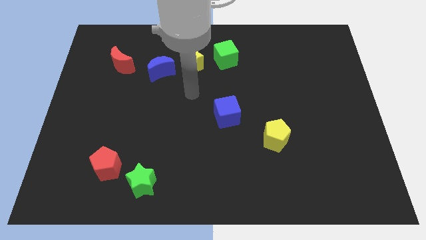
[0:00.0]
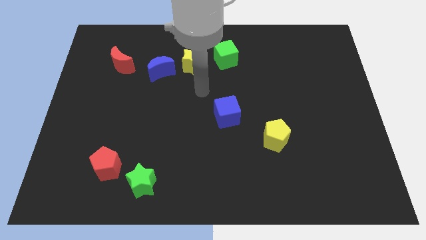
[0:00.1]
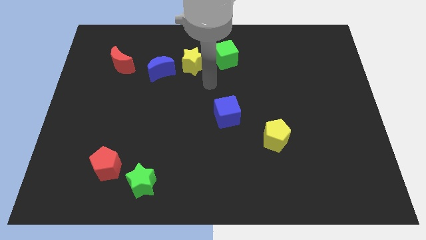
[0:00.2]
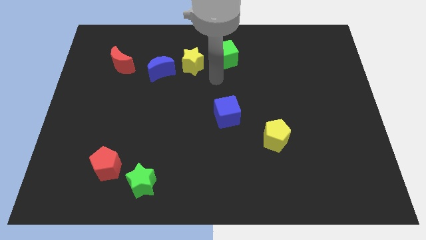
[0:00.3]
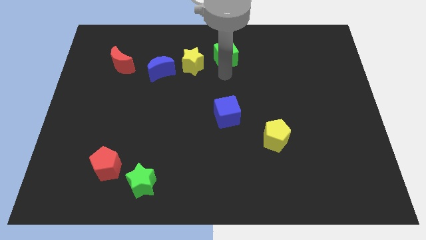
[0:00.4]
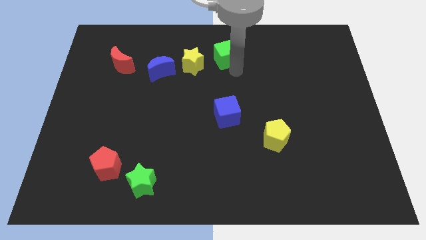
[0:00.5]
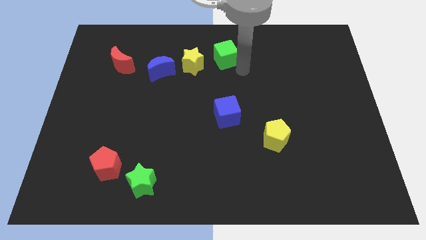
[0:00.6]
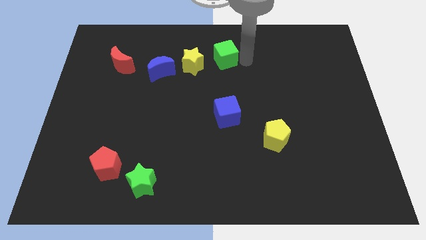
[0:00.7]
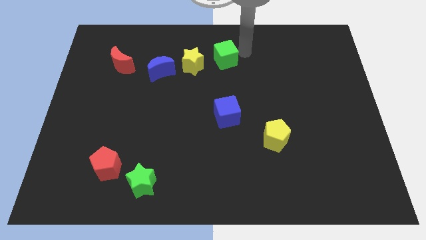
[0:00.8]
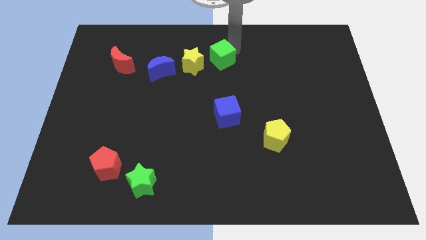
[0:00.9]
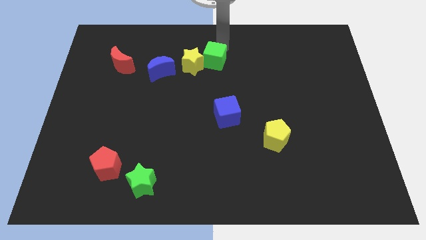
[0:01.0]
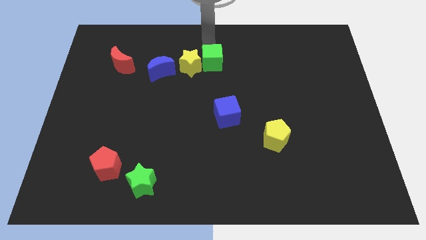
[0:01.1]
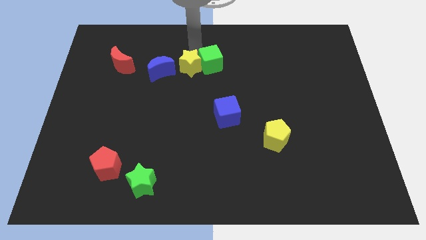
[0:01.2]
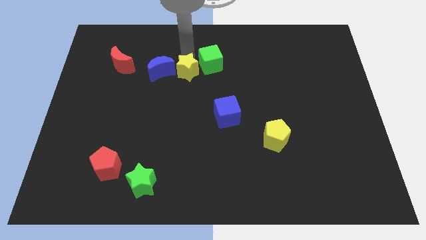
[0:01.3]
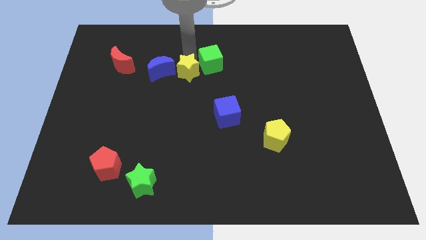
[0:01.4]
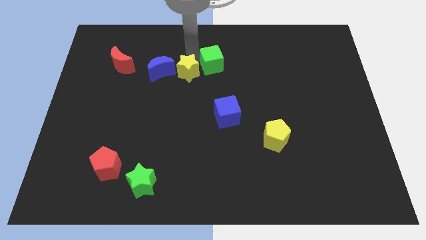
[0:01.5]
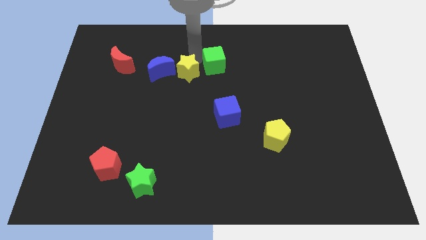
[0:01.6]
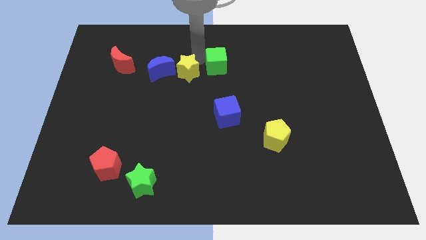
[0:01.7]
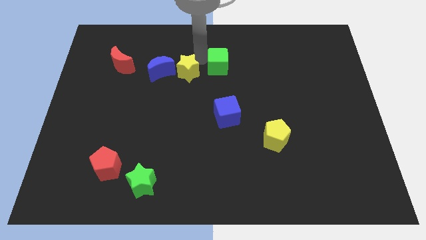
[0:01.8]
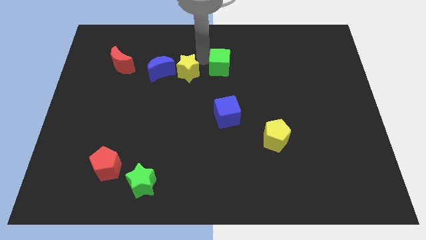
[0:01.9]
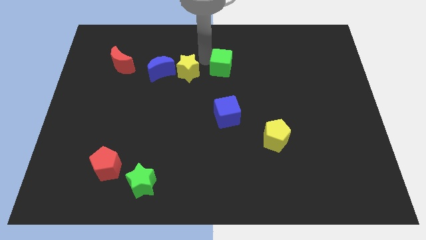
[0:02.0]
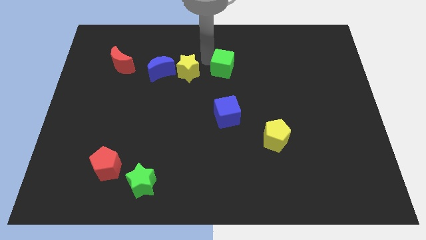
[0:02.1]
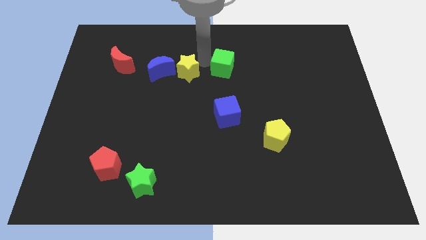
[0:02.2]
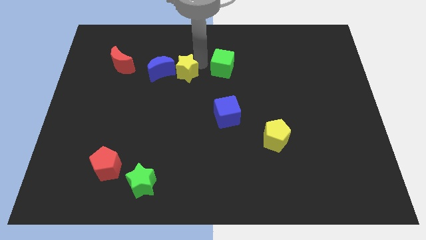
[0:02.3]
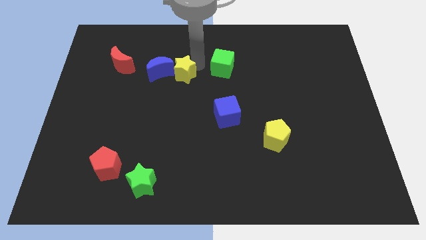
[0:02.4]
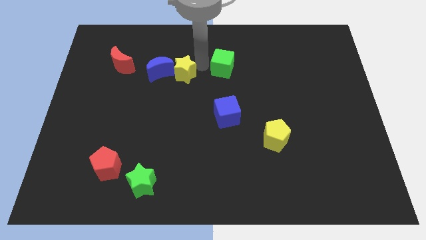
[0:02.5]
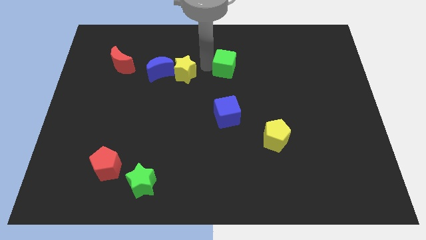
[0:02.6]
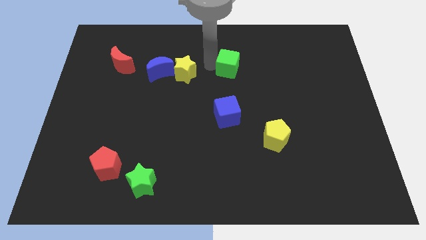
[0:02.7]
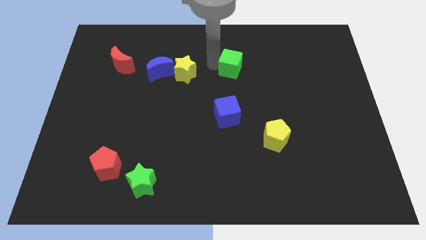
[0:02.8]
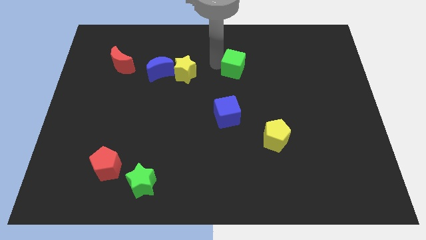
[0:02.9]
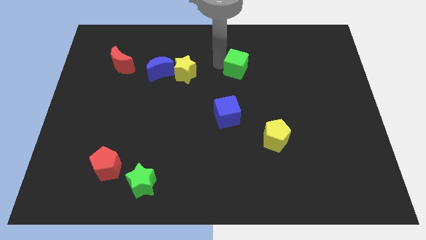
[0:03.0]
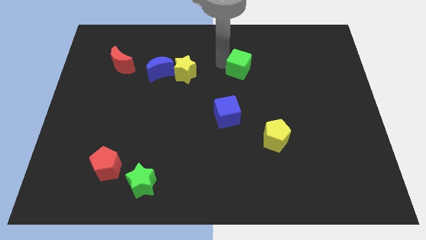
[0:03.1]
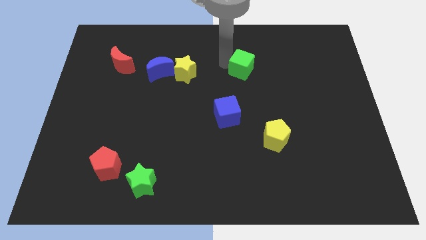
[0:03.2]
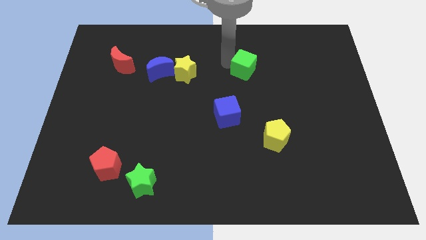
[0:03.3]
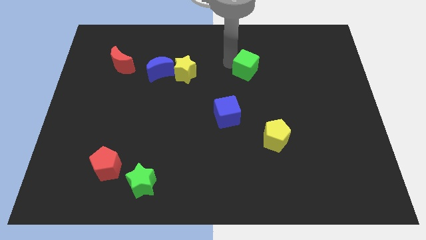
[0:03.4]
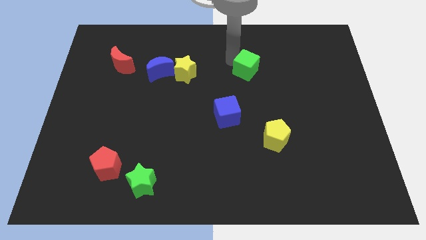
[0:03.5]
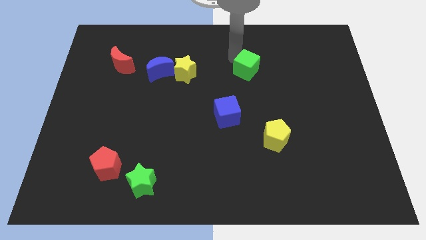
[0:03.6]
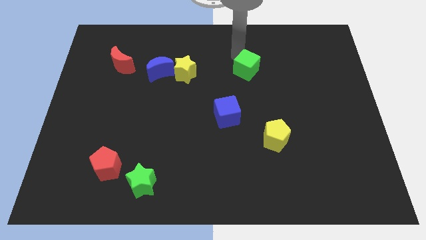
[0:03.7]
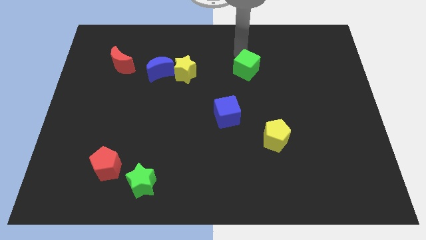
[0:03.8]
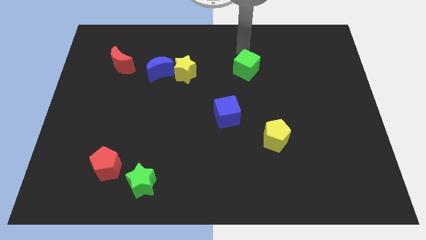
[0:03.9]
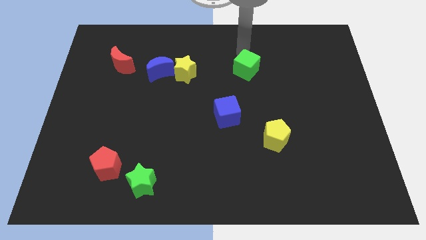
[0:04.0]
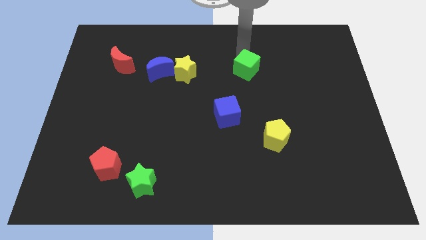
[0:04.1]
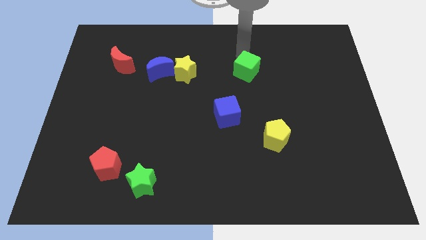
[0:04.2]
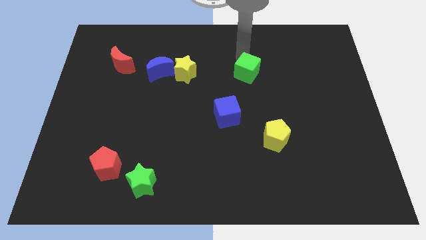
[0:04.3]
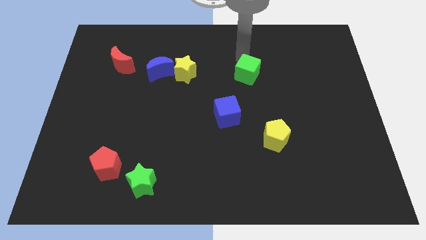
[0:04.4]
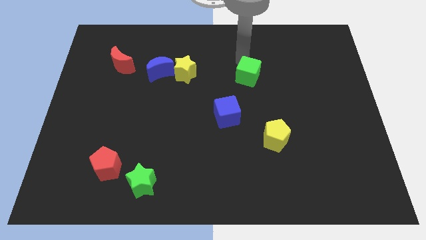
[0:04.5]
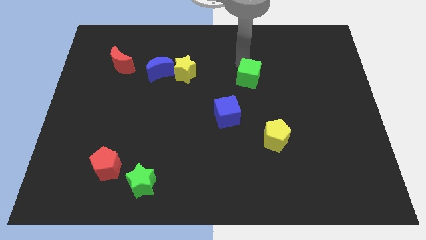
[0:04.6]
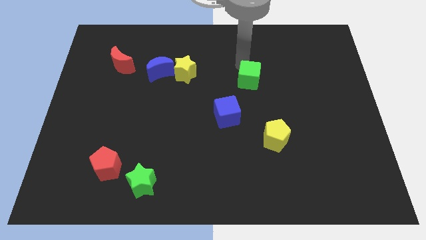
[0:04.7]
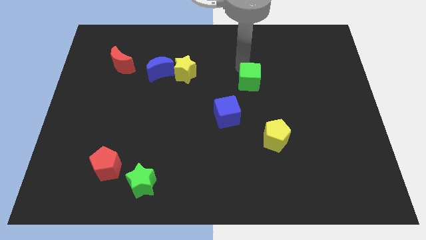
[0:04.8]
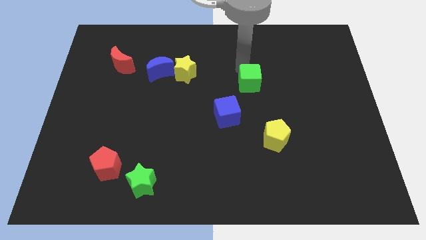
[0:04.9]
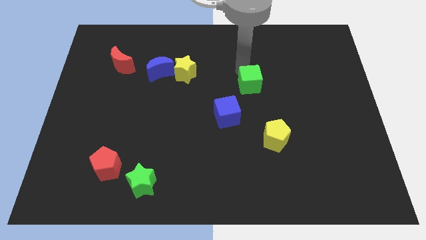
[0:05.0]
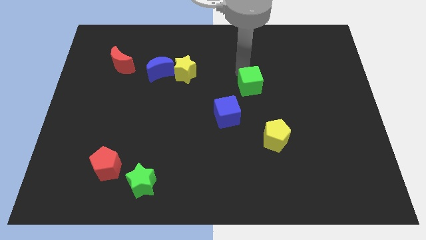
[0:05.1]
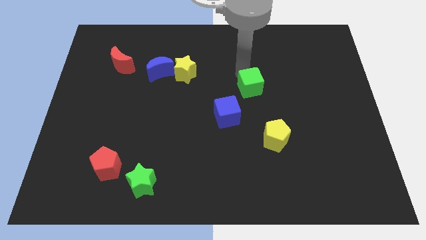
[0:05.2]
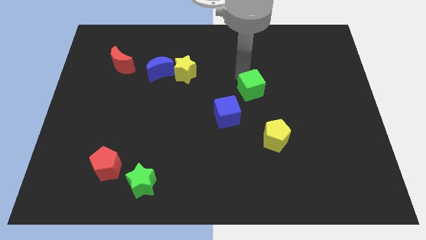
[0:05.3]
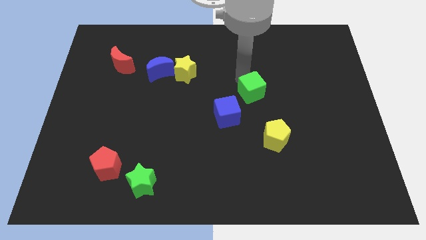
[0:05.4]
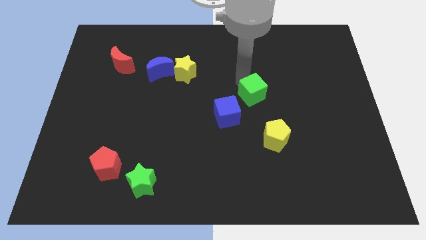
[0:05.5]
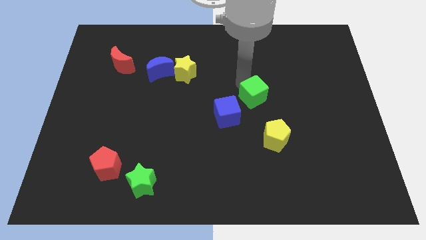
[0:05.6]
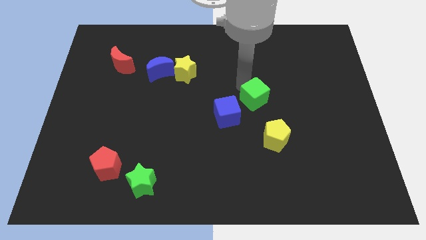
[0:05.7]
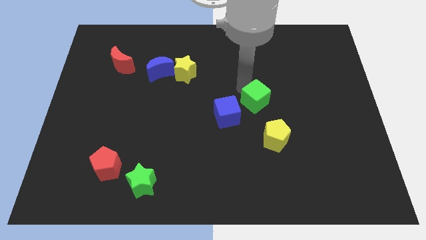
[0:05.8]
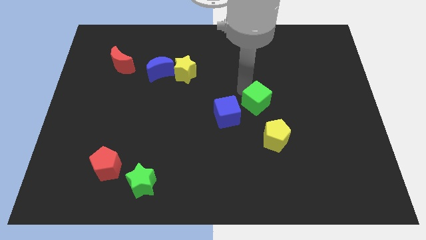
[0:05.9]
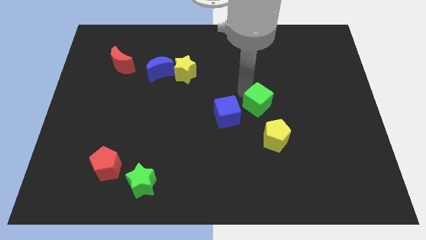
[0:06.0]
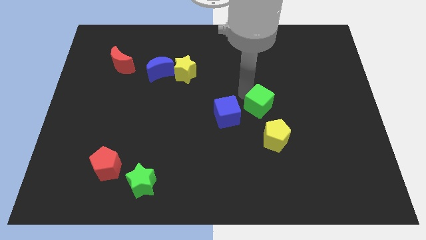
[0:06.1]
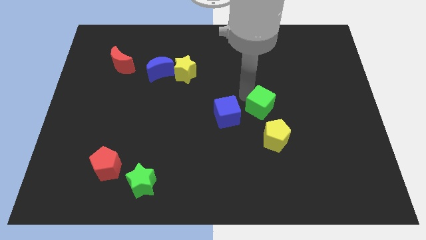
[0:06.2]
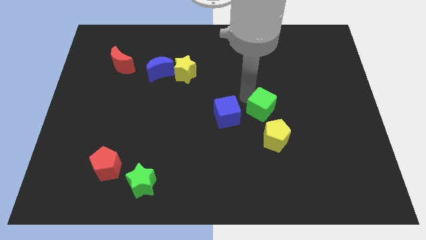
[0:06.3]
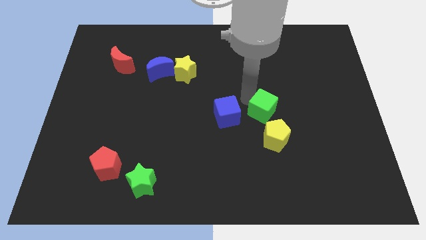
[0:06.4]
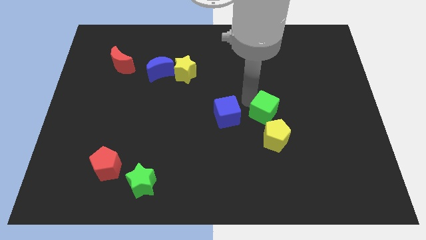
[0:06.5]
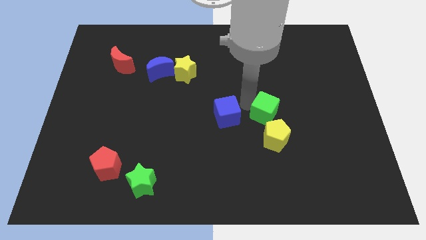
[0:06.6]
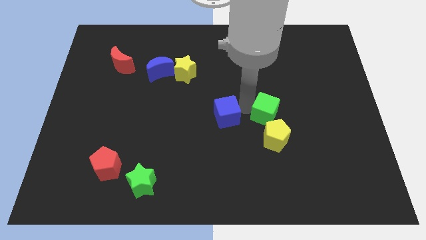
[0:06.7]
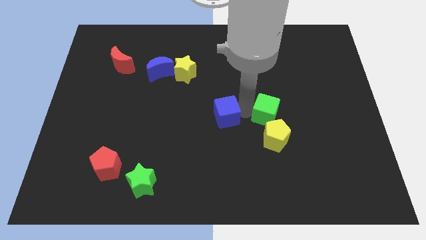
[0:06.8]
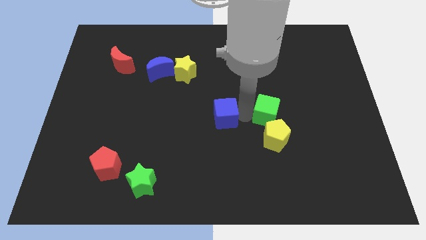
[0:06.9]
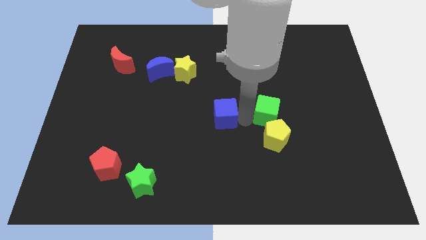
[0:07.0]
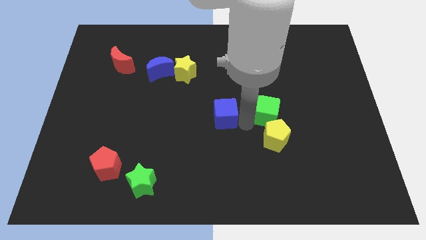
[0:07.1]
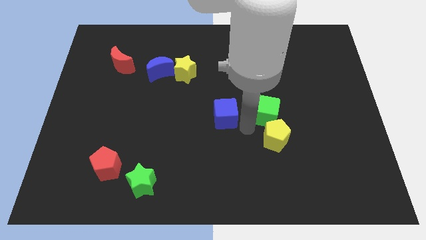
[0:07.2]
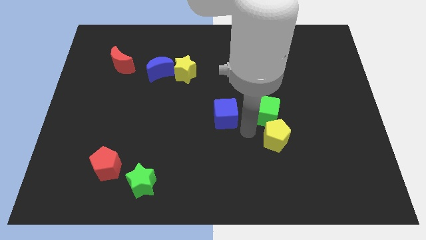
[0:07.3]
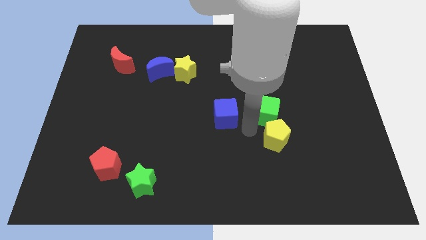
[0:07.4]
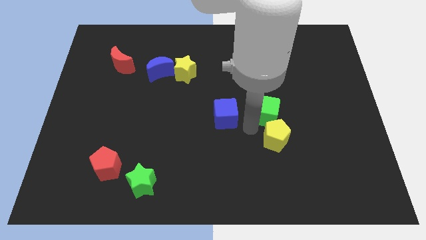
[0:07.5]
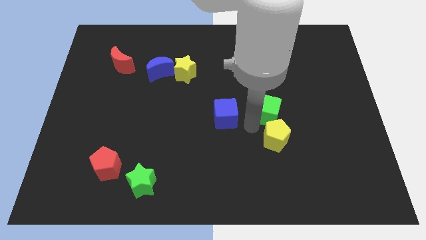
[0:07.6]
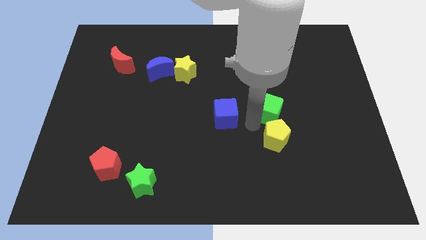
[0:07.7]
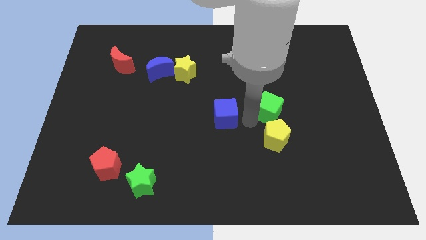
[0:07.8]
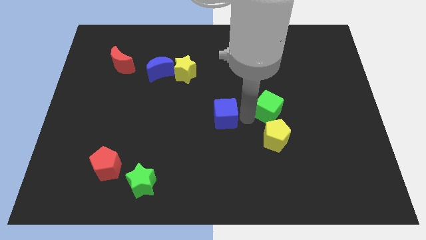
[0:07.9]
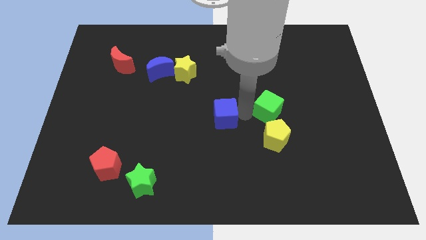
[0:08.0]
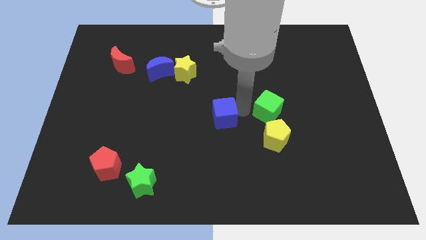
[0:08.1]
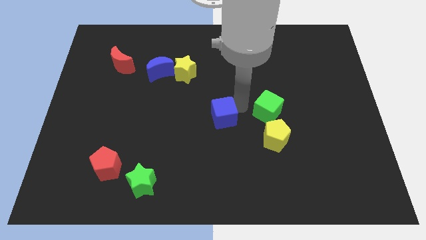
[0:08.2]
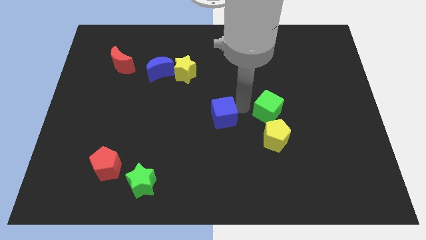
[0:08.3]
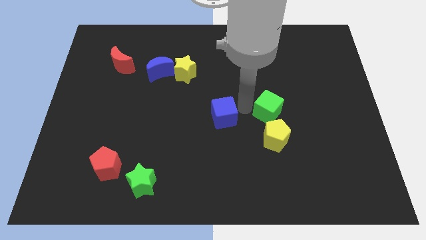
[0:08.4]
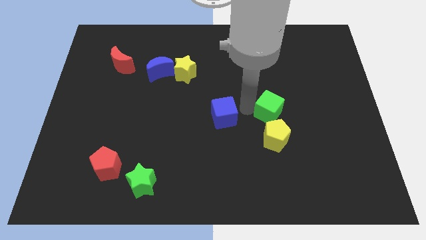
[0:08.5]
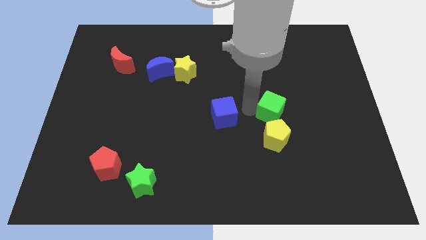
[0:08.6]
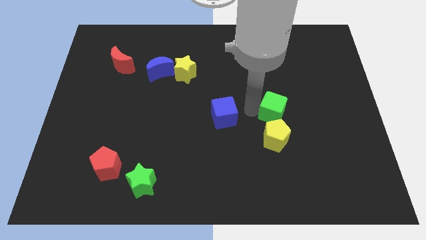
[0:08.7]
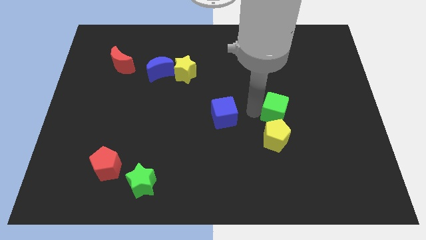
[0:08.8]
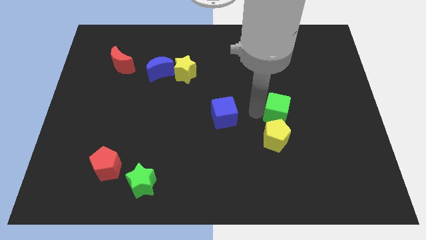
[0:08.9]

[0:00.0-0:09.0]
move the green cube downwards and to the right diagonally
